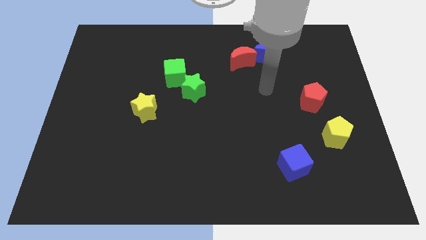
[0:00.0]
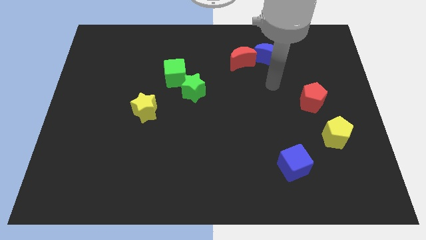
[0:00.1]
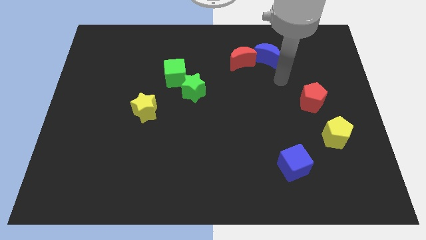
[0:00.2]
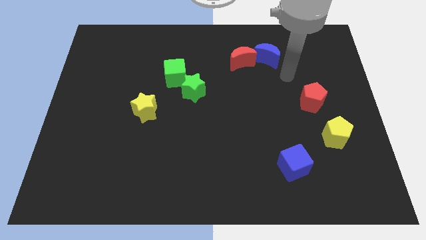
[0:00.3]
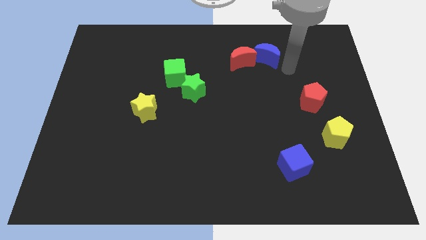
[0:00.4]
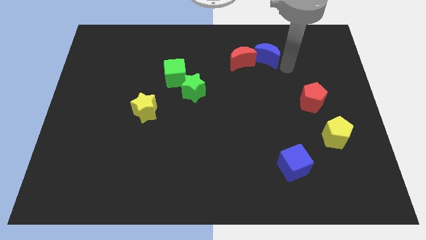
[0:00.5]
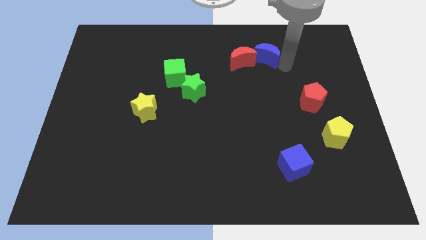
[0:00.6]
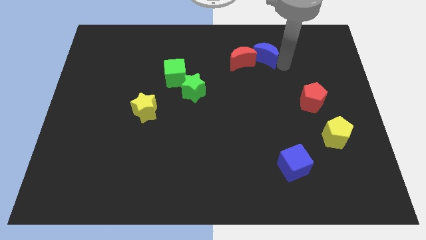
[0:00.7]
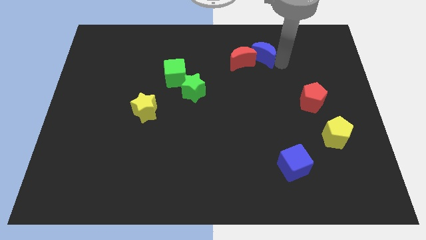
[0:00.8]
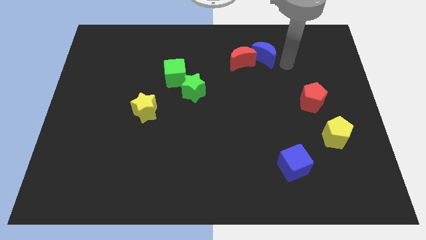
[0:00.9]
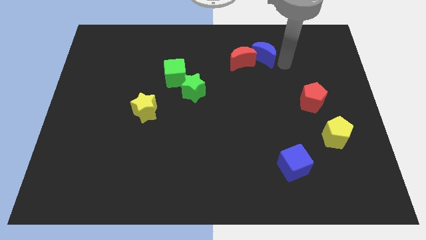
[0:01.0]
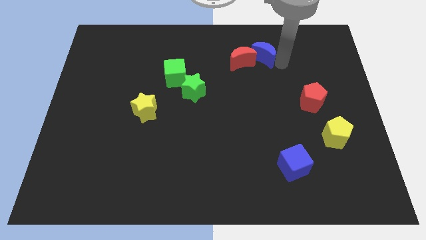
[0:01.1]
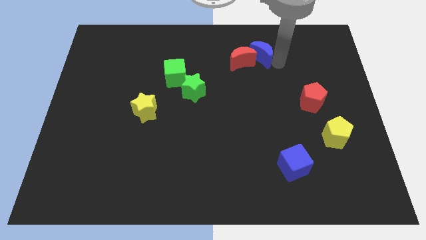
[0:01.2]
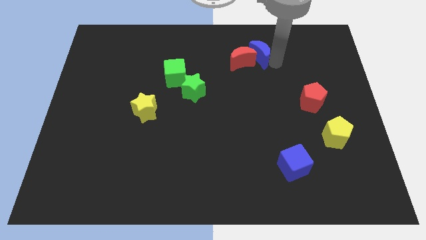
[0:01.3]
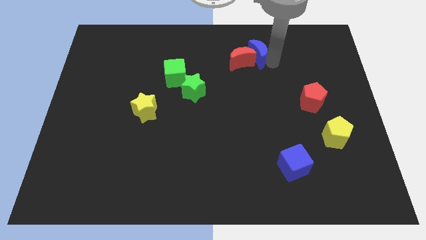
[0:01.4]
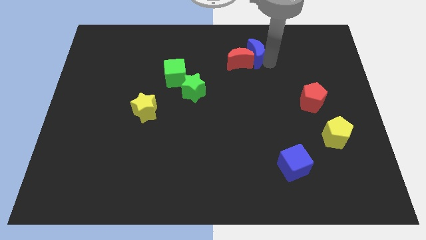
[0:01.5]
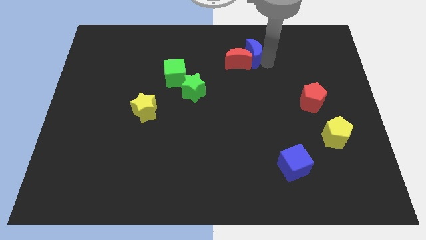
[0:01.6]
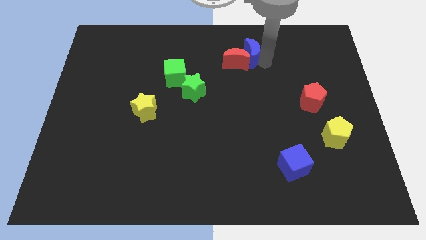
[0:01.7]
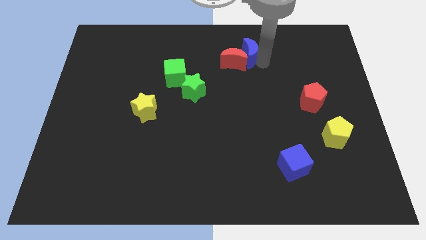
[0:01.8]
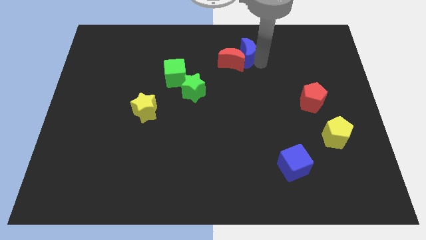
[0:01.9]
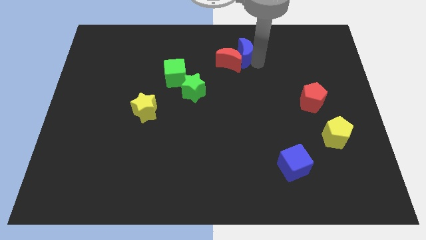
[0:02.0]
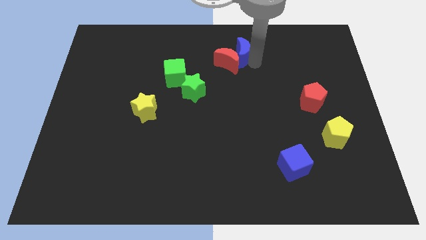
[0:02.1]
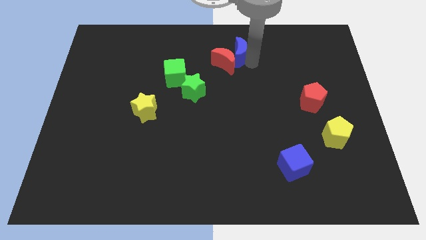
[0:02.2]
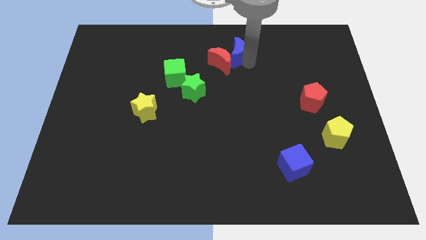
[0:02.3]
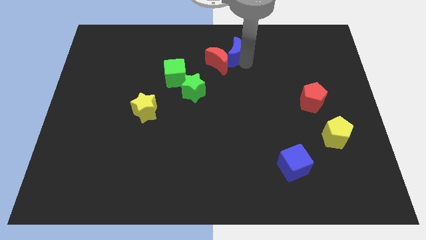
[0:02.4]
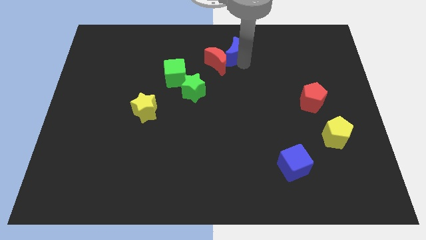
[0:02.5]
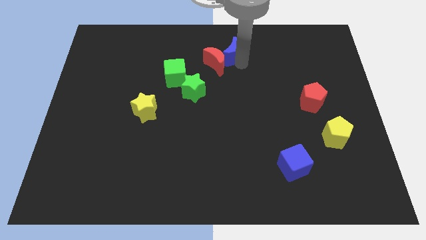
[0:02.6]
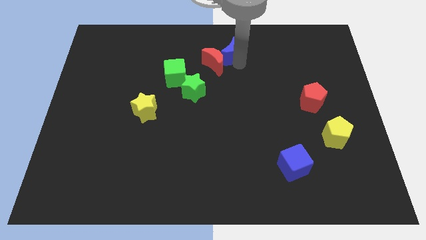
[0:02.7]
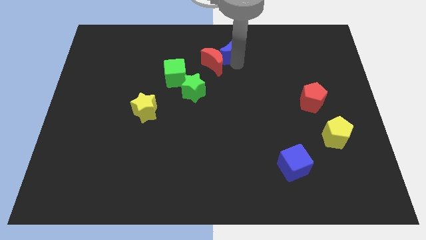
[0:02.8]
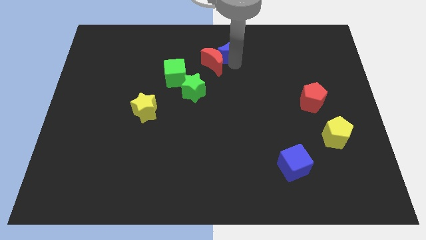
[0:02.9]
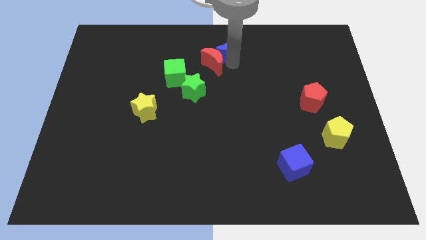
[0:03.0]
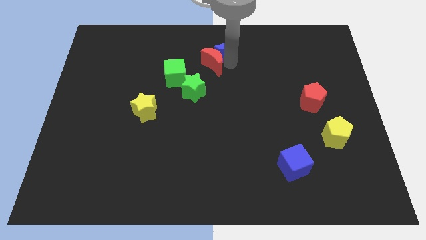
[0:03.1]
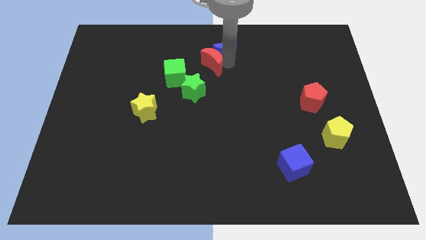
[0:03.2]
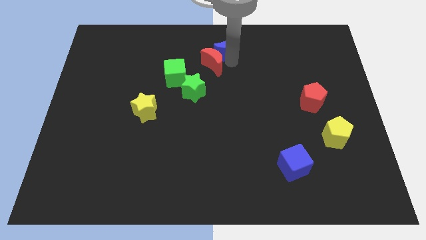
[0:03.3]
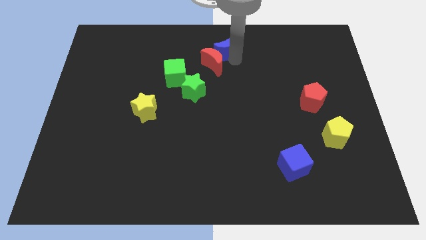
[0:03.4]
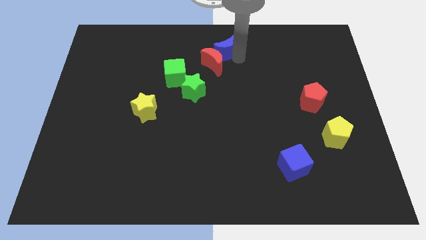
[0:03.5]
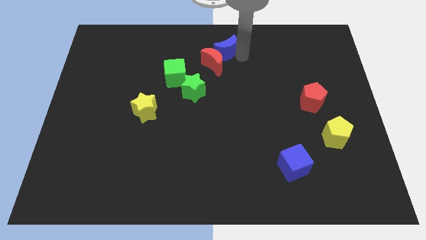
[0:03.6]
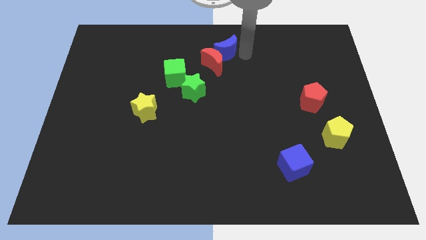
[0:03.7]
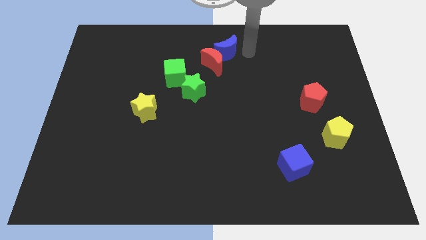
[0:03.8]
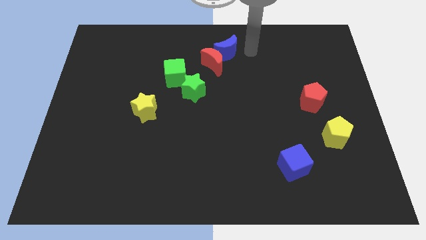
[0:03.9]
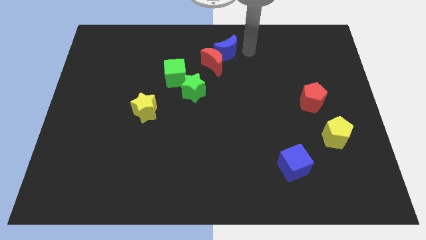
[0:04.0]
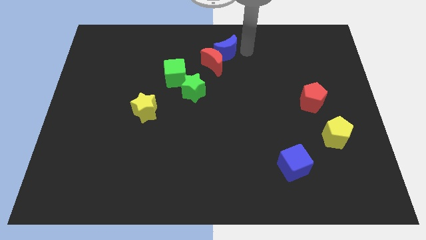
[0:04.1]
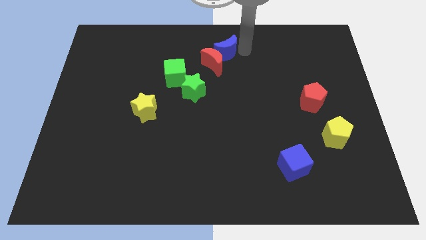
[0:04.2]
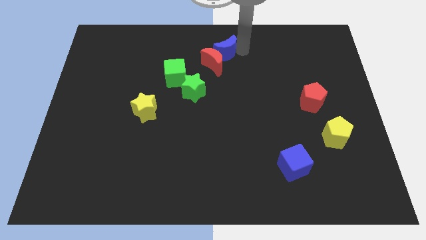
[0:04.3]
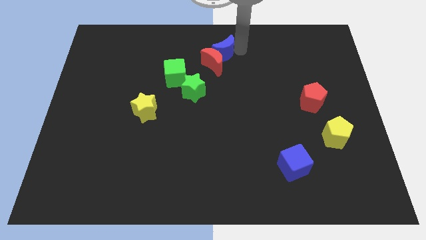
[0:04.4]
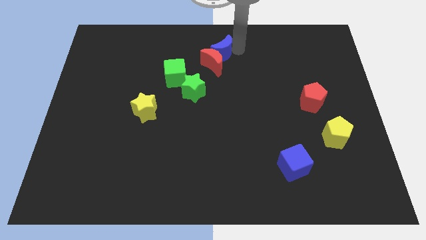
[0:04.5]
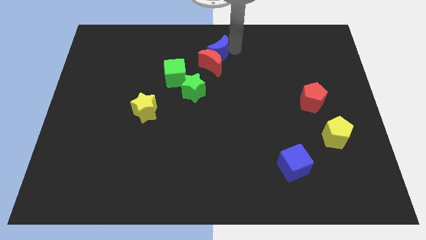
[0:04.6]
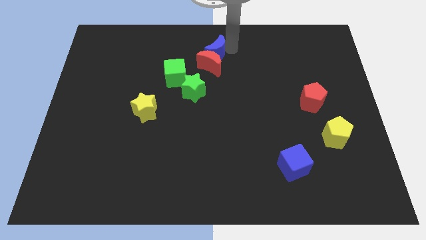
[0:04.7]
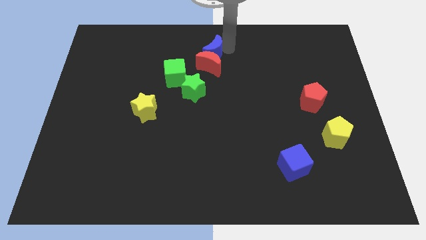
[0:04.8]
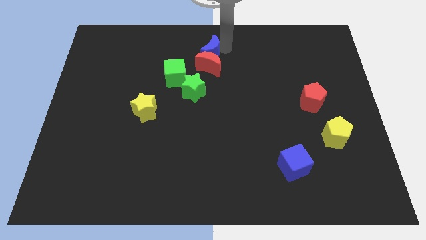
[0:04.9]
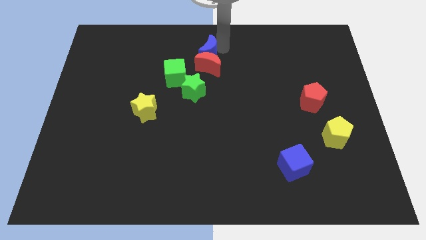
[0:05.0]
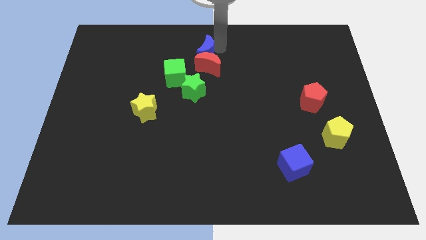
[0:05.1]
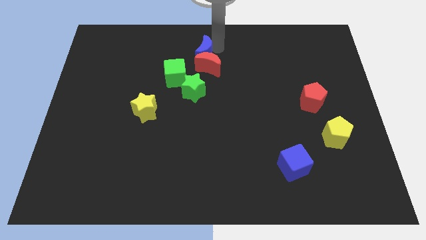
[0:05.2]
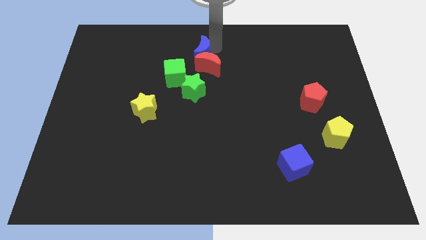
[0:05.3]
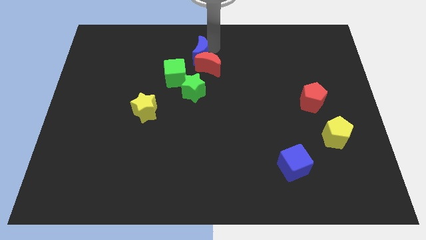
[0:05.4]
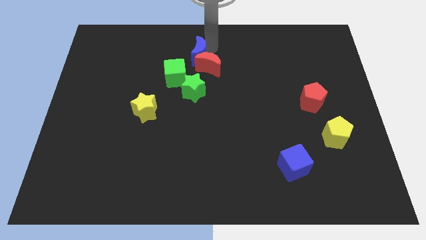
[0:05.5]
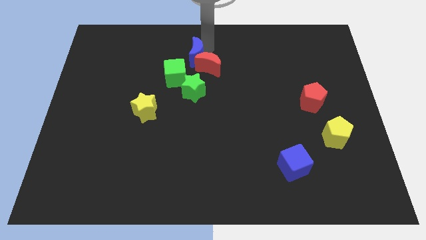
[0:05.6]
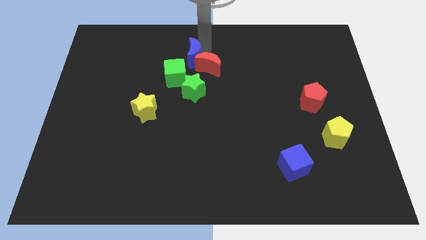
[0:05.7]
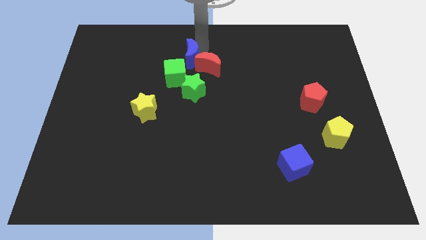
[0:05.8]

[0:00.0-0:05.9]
move the blue moon to the left

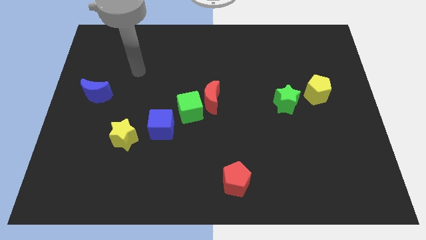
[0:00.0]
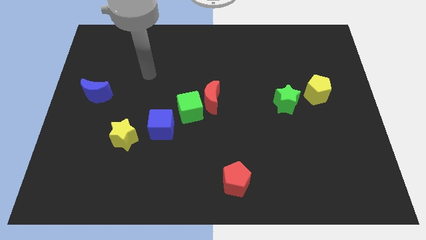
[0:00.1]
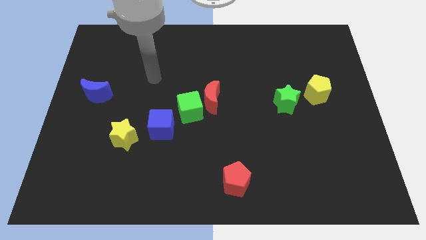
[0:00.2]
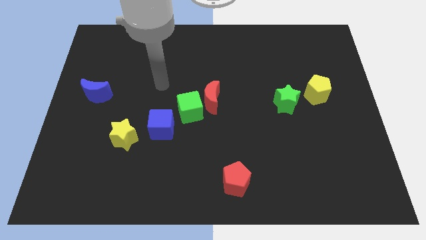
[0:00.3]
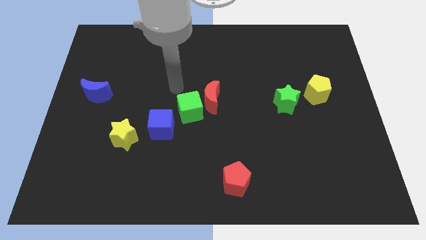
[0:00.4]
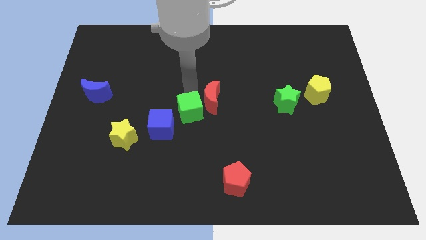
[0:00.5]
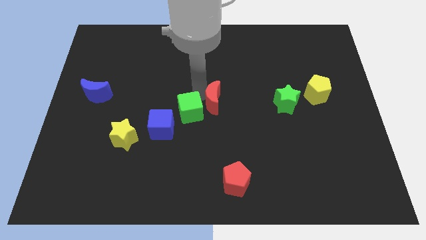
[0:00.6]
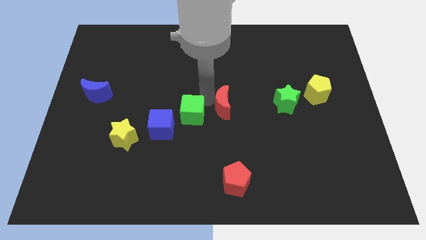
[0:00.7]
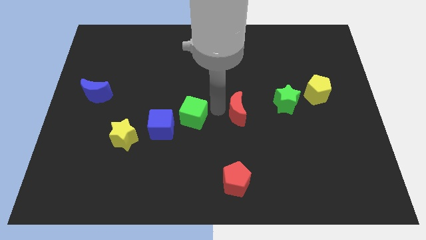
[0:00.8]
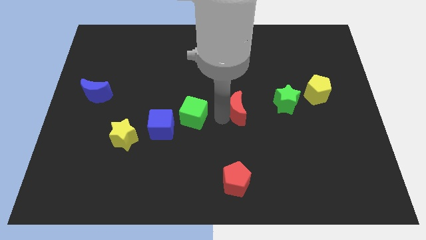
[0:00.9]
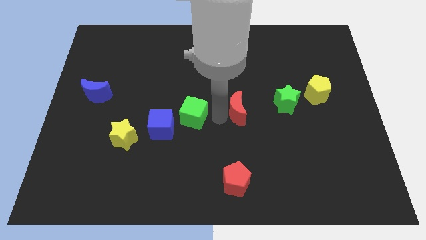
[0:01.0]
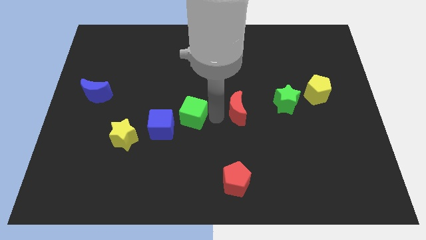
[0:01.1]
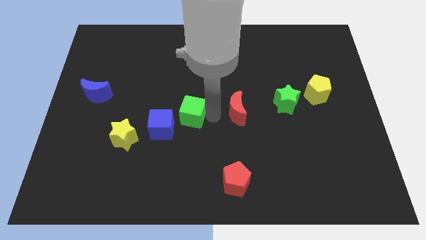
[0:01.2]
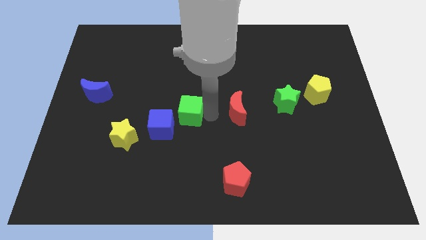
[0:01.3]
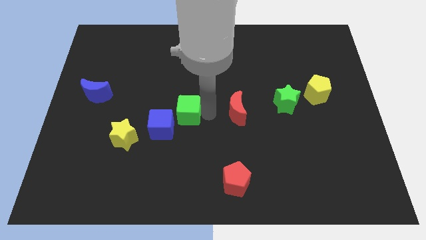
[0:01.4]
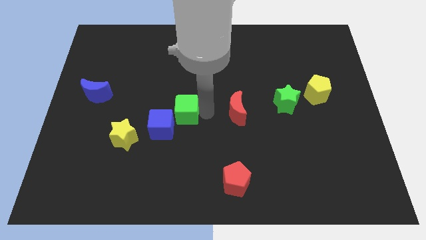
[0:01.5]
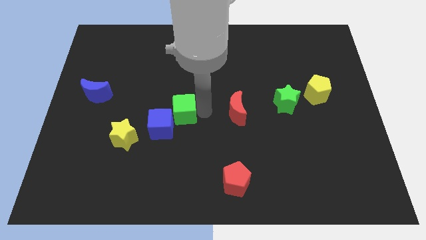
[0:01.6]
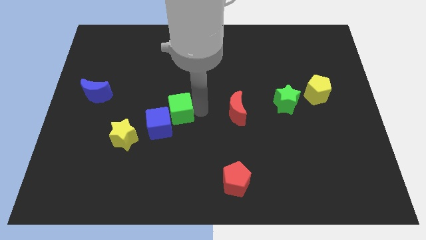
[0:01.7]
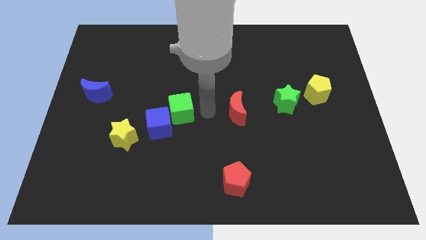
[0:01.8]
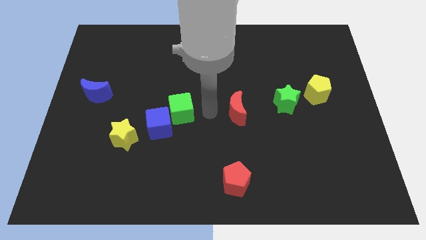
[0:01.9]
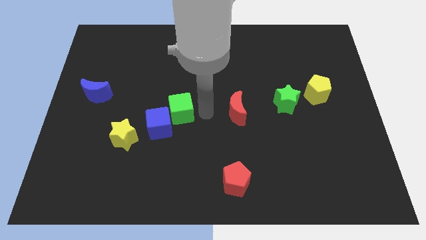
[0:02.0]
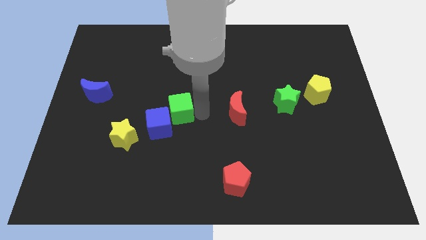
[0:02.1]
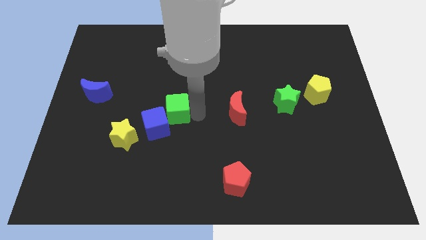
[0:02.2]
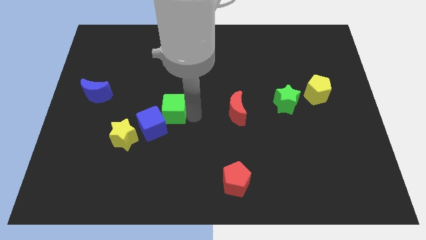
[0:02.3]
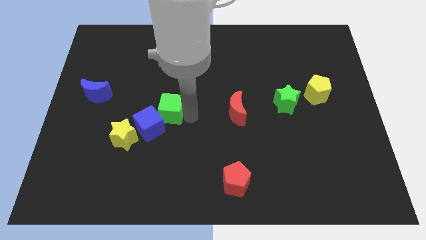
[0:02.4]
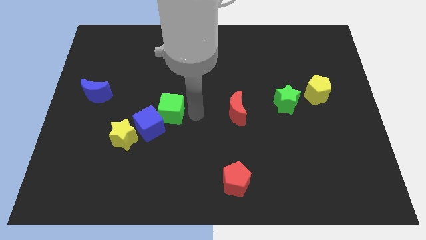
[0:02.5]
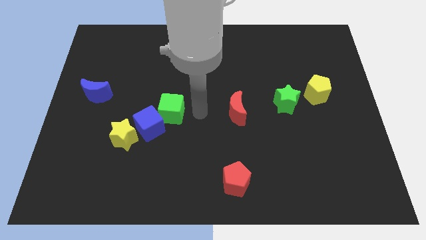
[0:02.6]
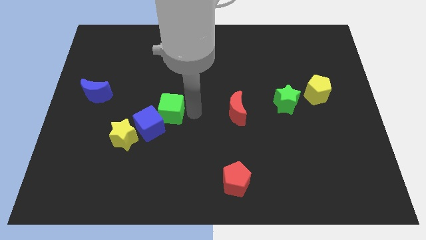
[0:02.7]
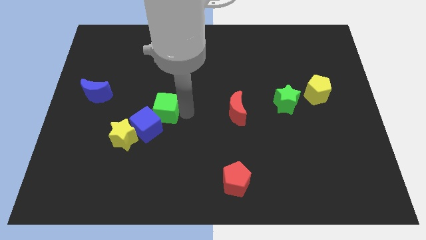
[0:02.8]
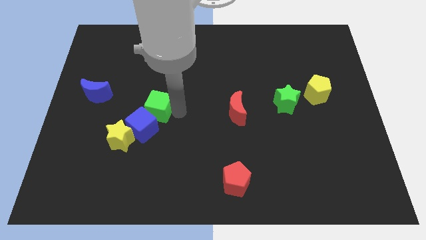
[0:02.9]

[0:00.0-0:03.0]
slightly push the green cube left
